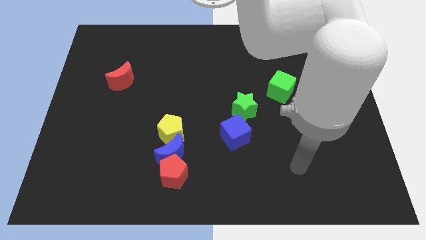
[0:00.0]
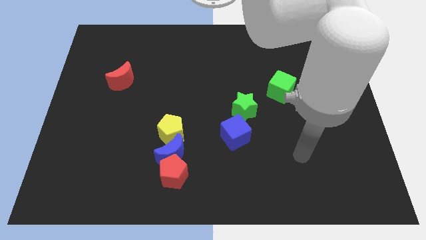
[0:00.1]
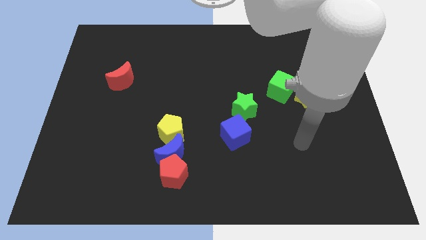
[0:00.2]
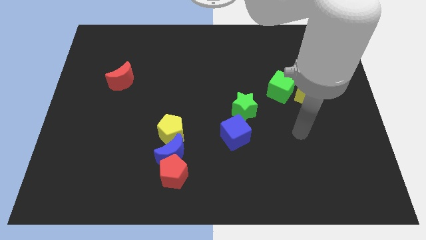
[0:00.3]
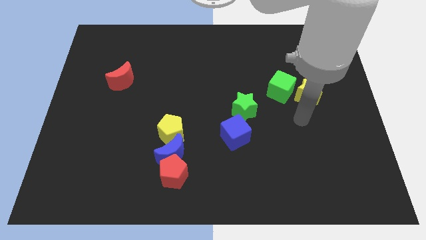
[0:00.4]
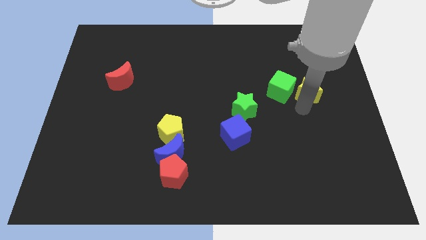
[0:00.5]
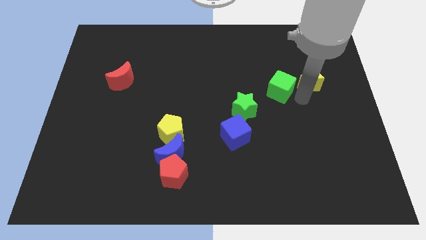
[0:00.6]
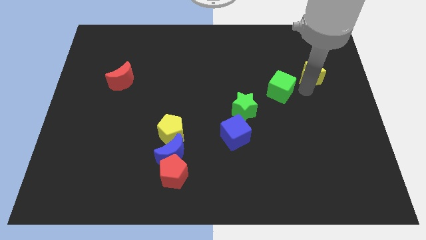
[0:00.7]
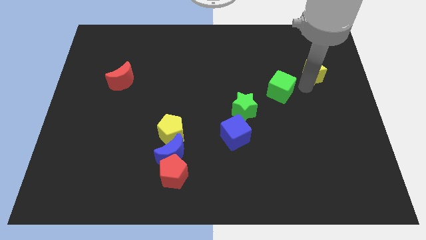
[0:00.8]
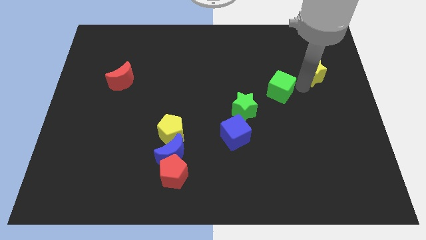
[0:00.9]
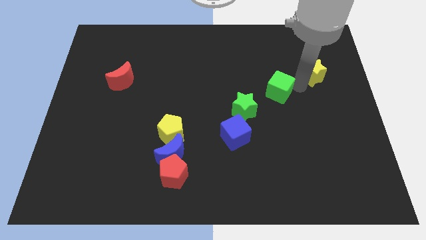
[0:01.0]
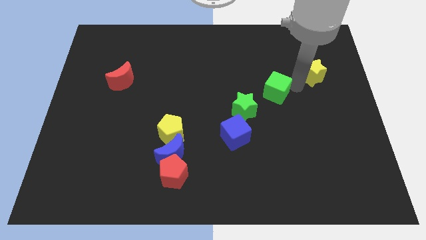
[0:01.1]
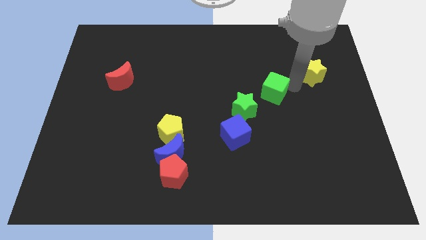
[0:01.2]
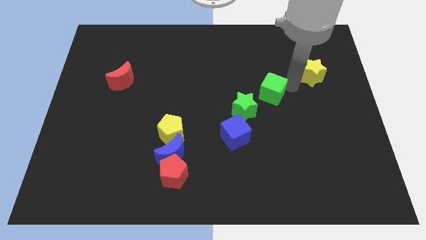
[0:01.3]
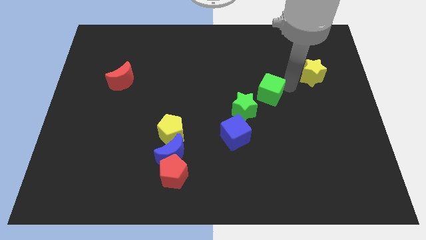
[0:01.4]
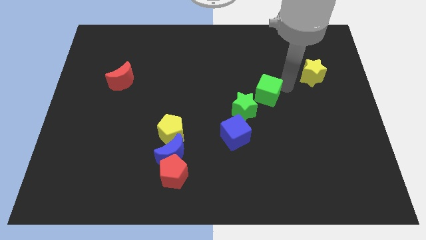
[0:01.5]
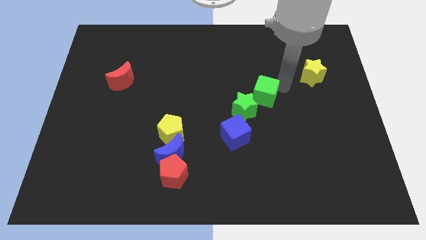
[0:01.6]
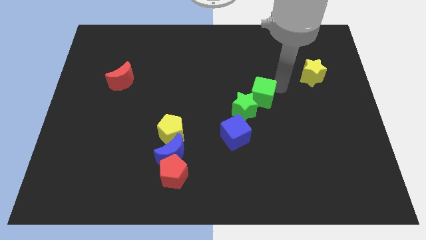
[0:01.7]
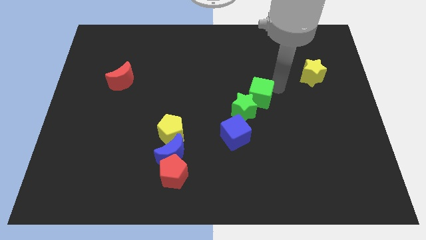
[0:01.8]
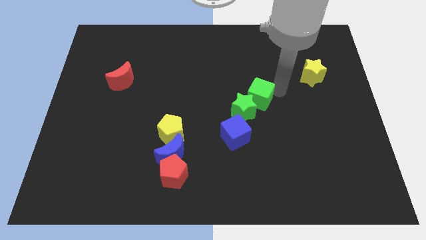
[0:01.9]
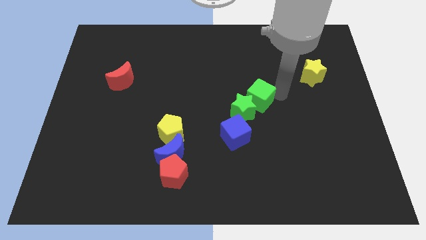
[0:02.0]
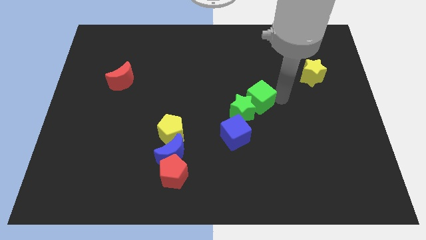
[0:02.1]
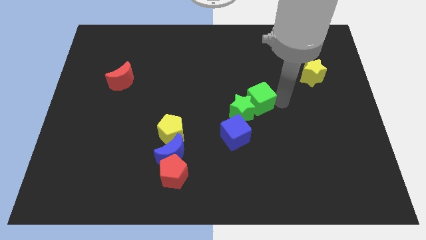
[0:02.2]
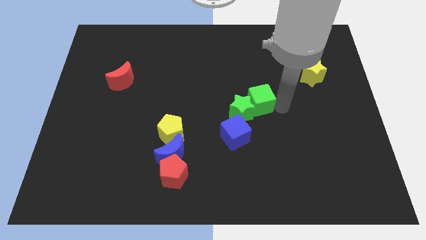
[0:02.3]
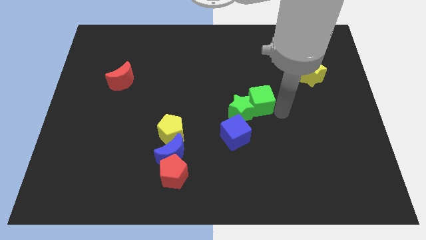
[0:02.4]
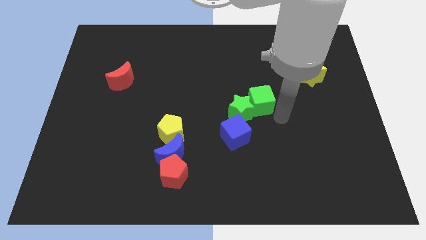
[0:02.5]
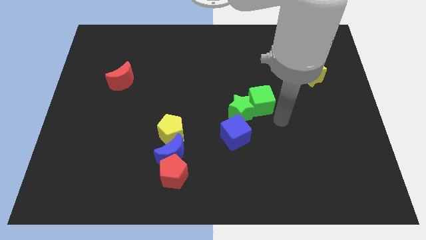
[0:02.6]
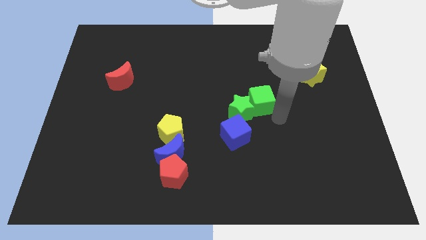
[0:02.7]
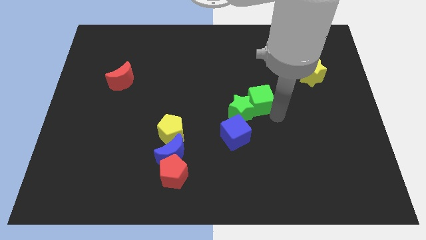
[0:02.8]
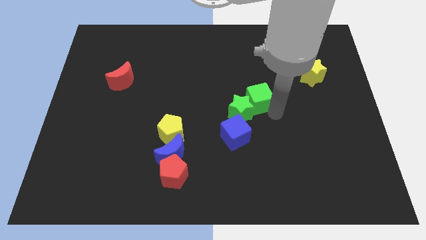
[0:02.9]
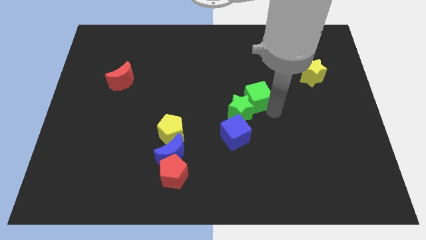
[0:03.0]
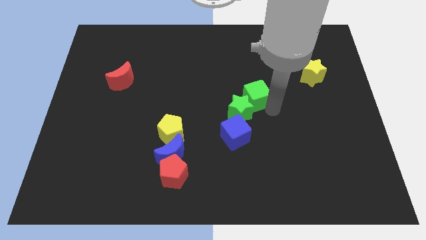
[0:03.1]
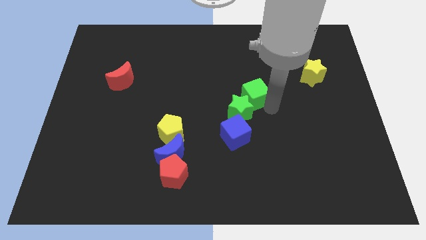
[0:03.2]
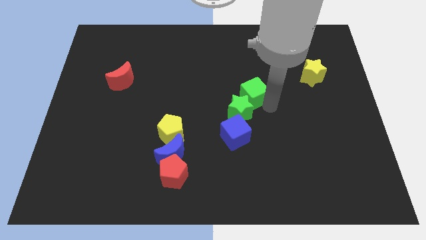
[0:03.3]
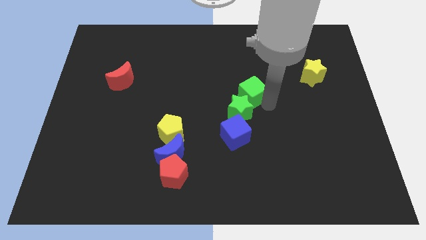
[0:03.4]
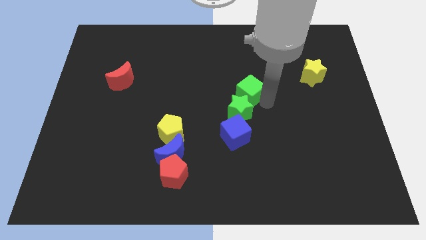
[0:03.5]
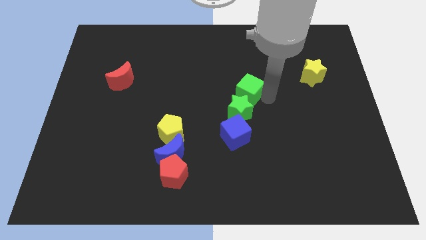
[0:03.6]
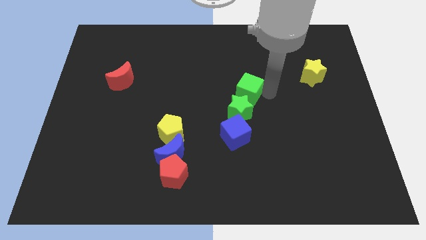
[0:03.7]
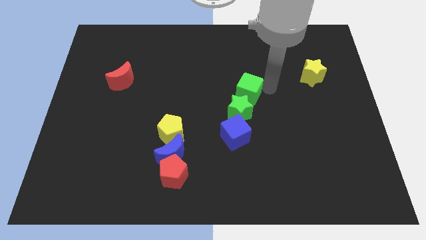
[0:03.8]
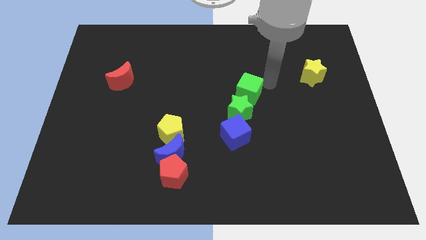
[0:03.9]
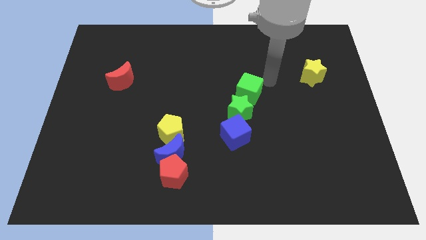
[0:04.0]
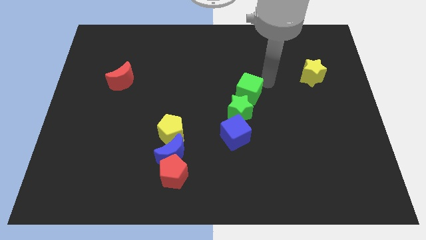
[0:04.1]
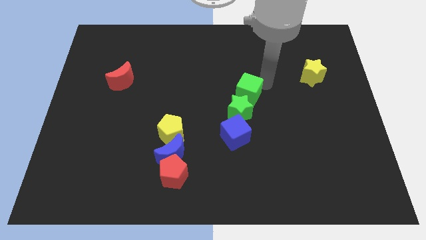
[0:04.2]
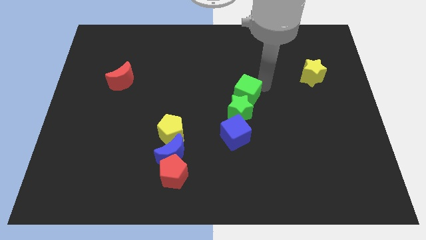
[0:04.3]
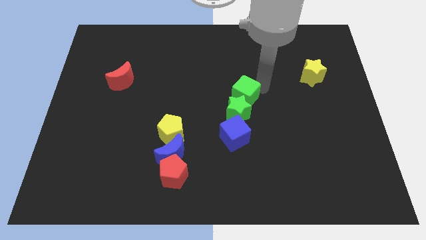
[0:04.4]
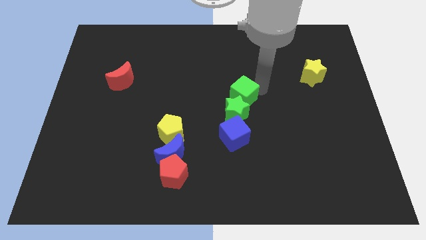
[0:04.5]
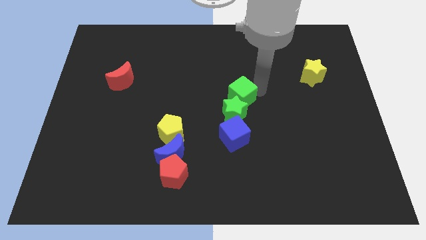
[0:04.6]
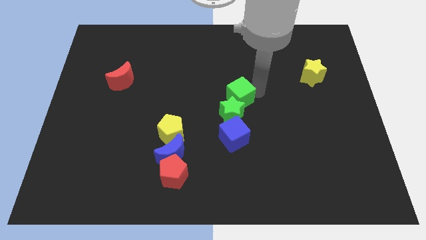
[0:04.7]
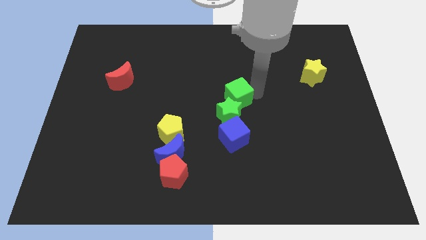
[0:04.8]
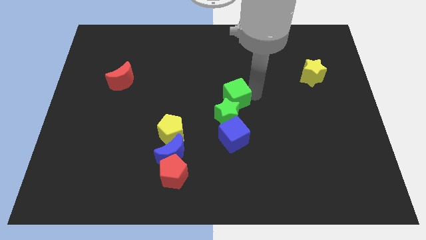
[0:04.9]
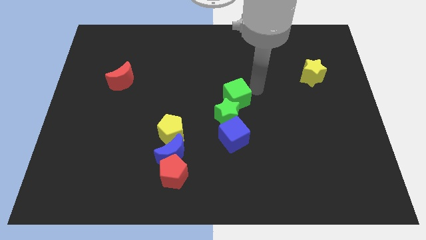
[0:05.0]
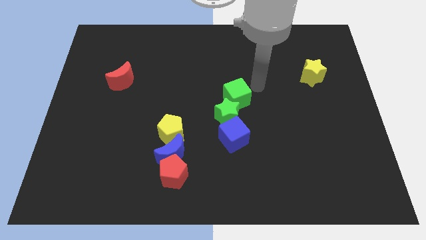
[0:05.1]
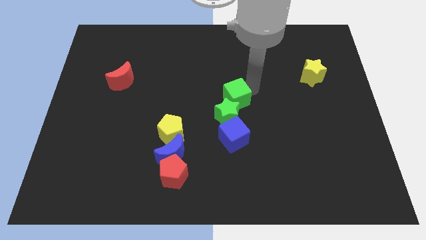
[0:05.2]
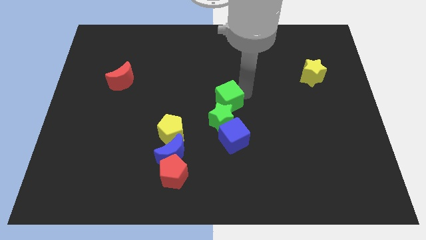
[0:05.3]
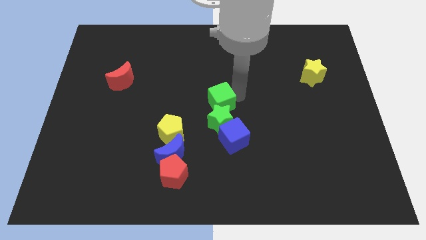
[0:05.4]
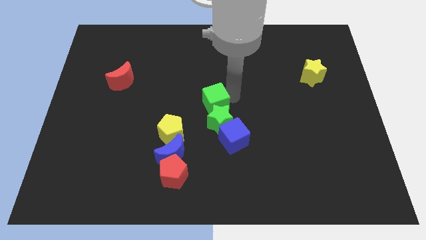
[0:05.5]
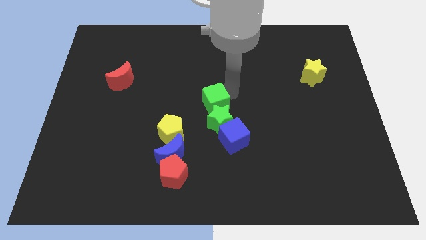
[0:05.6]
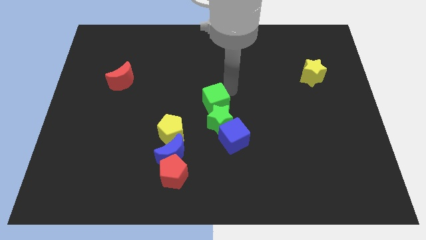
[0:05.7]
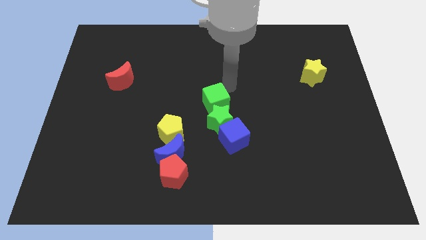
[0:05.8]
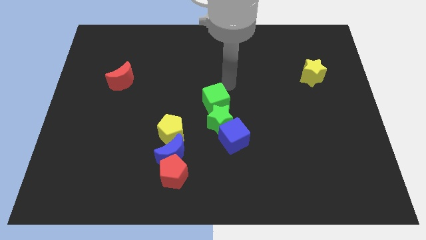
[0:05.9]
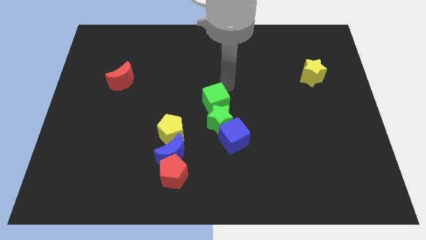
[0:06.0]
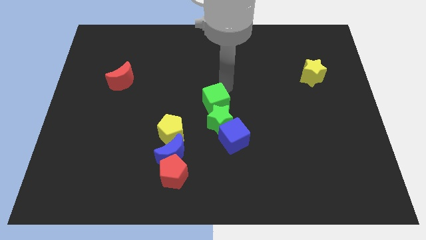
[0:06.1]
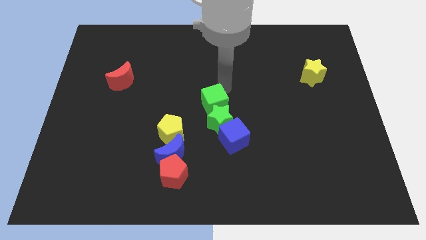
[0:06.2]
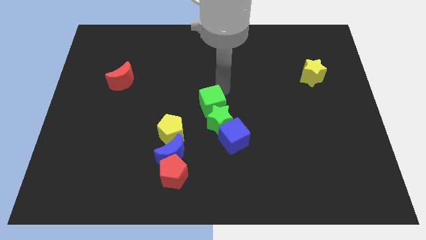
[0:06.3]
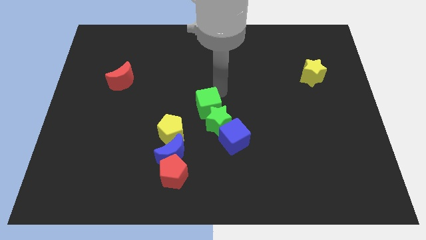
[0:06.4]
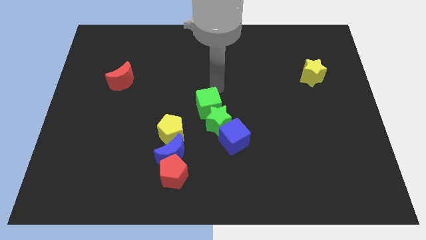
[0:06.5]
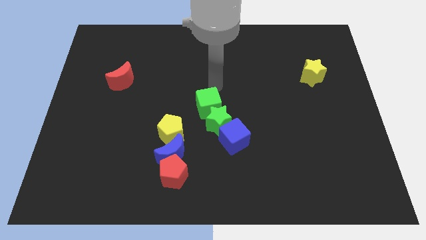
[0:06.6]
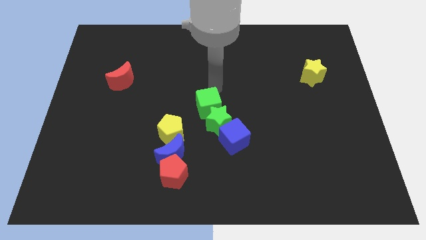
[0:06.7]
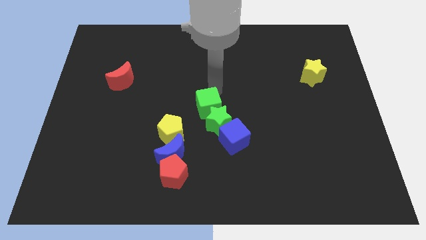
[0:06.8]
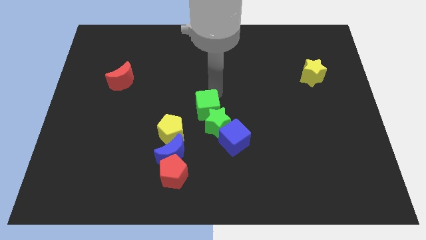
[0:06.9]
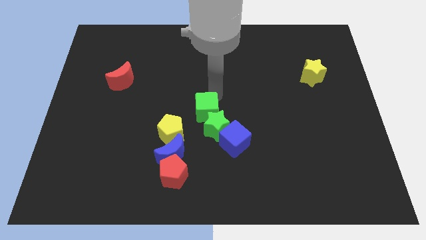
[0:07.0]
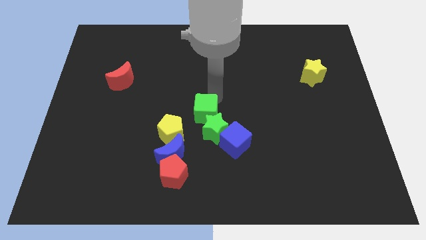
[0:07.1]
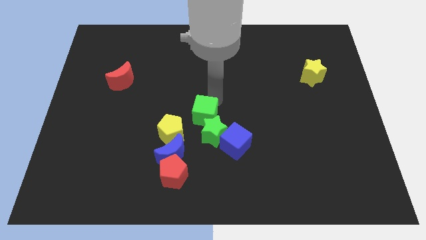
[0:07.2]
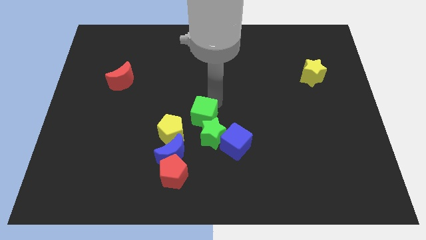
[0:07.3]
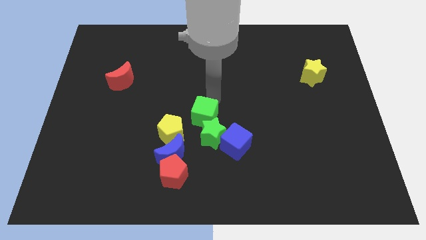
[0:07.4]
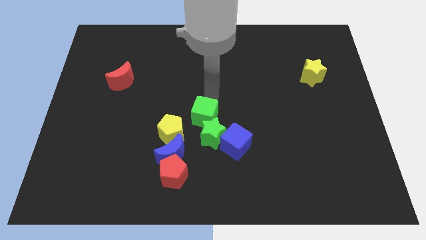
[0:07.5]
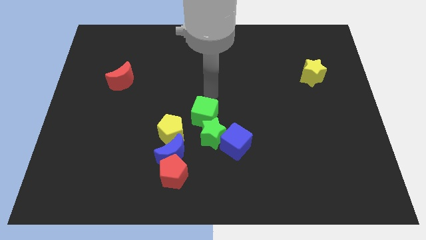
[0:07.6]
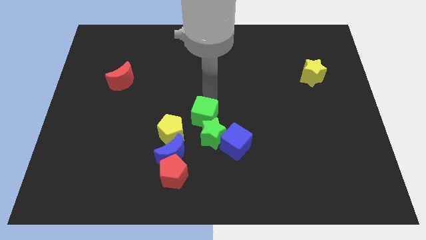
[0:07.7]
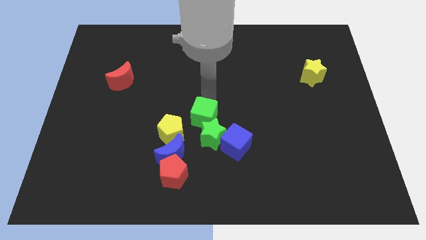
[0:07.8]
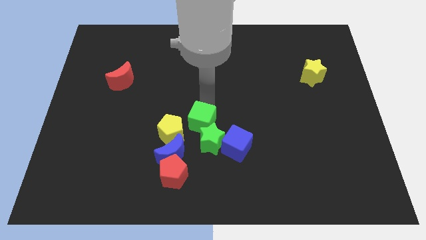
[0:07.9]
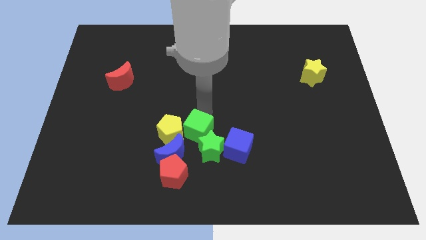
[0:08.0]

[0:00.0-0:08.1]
move the green cube to the bottom right side of the yellow pentagon
